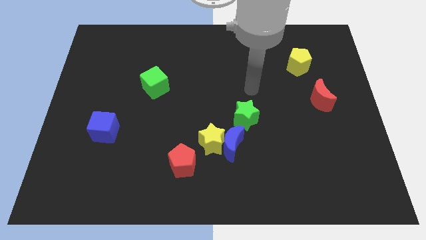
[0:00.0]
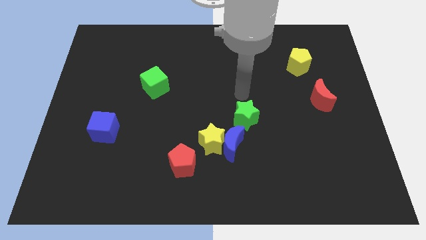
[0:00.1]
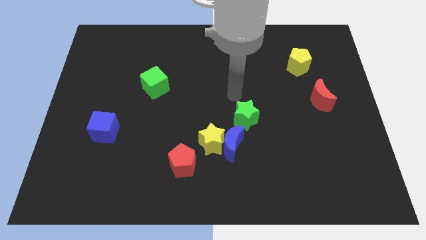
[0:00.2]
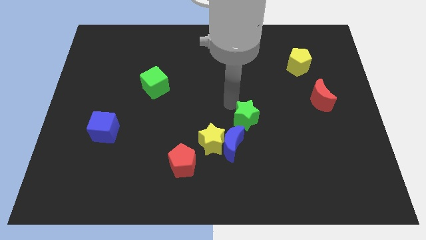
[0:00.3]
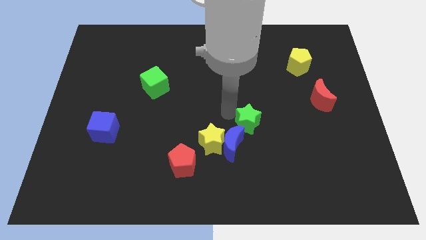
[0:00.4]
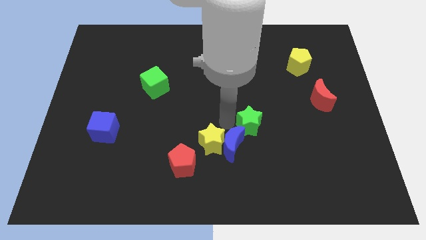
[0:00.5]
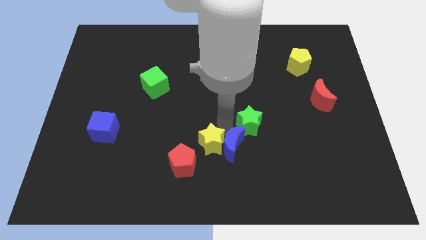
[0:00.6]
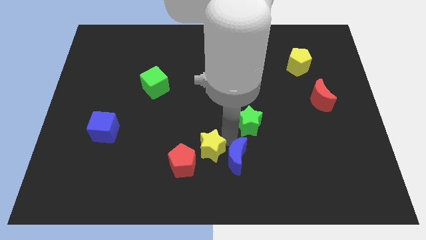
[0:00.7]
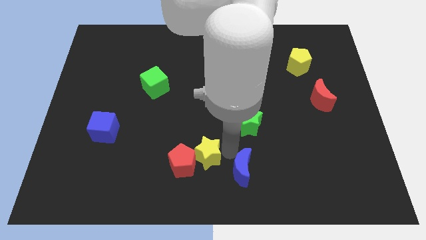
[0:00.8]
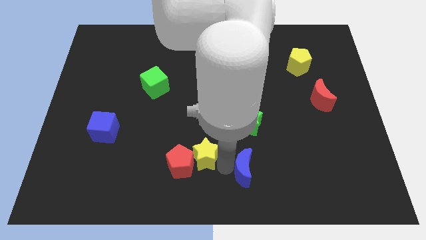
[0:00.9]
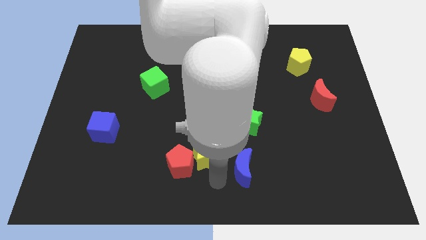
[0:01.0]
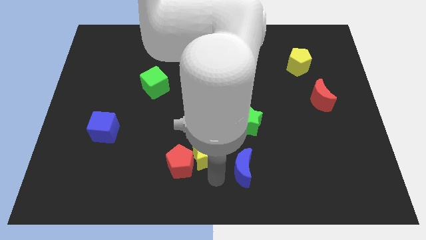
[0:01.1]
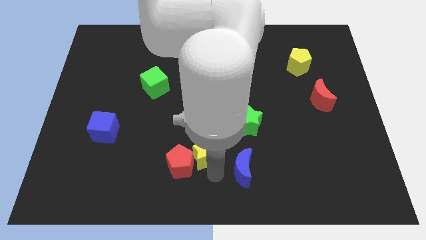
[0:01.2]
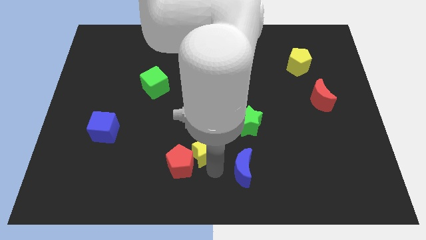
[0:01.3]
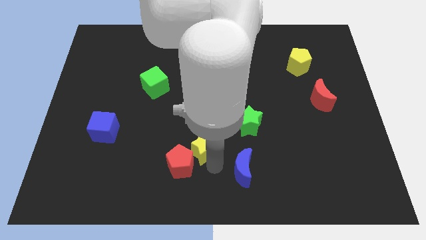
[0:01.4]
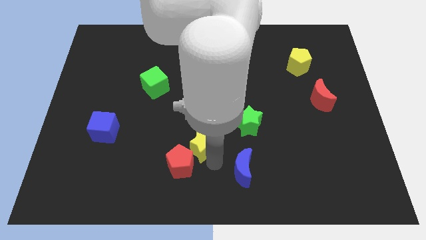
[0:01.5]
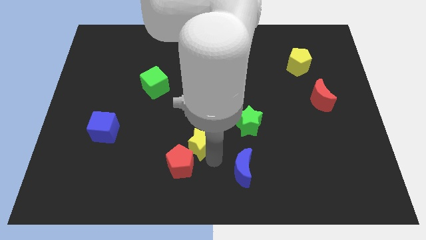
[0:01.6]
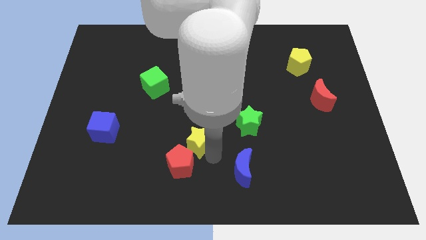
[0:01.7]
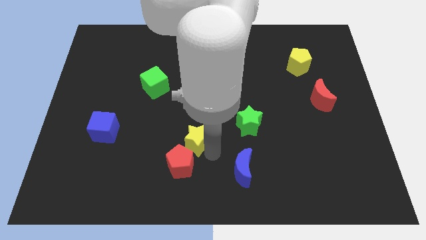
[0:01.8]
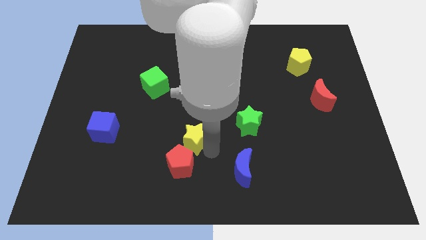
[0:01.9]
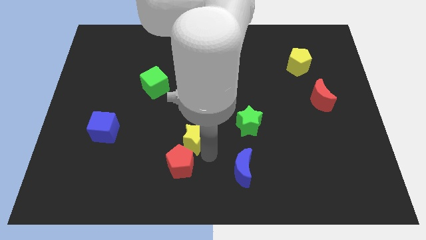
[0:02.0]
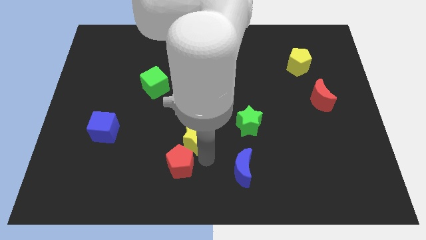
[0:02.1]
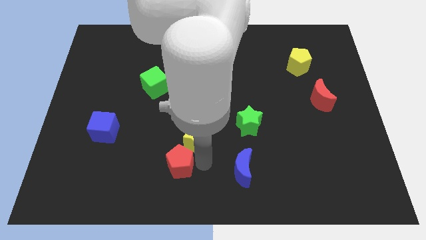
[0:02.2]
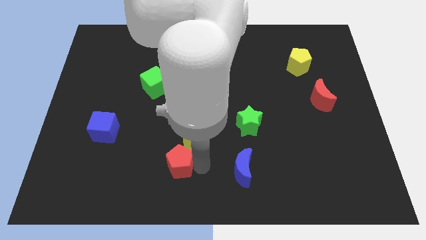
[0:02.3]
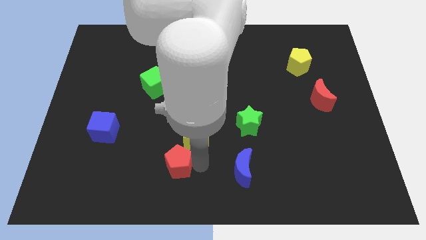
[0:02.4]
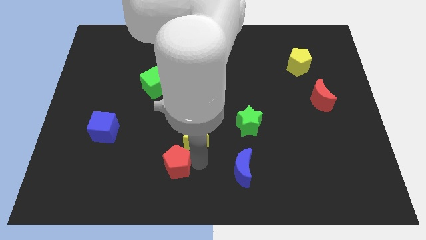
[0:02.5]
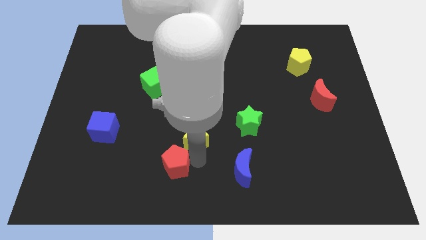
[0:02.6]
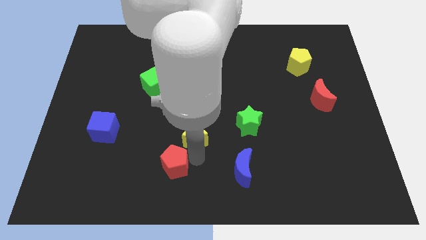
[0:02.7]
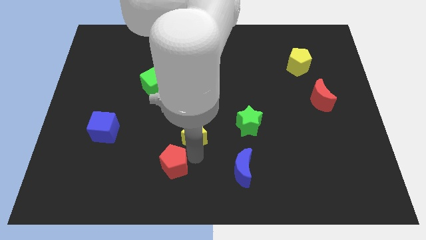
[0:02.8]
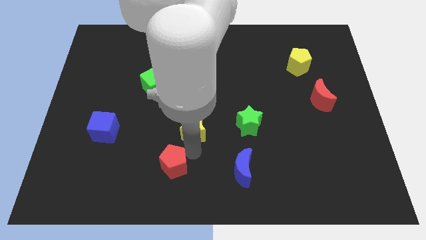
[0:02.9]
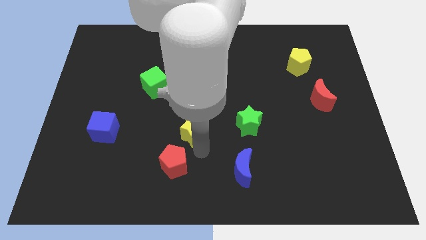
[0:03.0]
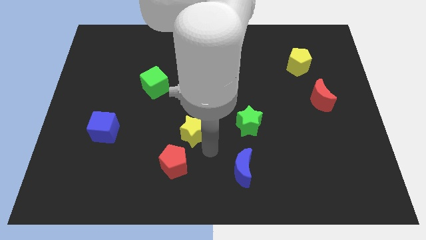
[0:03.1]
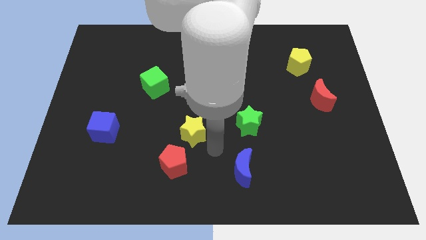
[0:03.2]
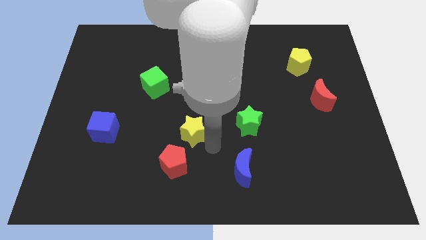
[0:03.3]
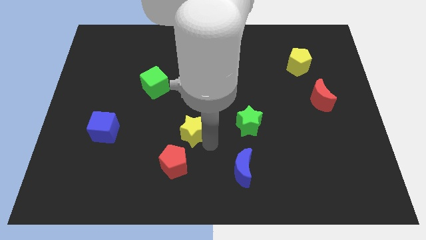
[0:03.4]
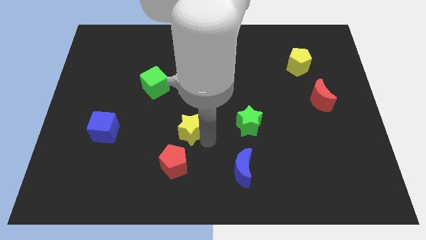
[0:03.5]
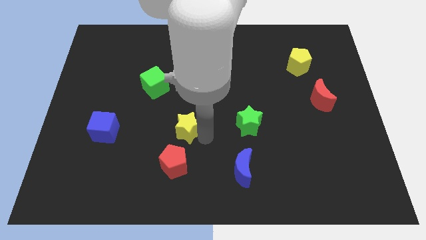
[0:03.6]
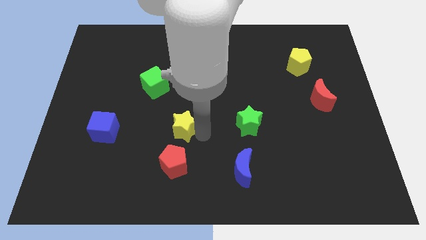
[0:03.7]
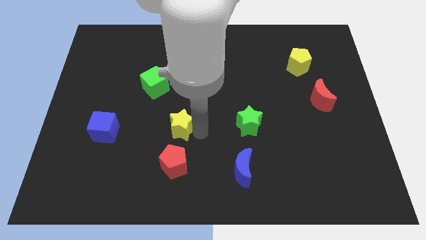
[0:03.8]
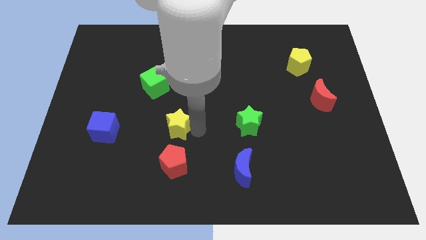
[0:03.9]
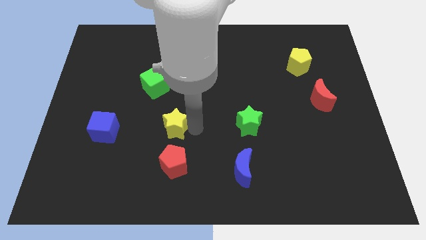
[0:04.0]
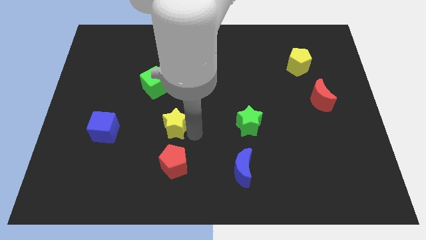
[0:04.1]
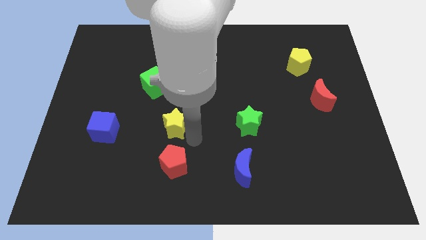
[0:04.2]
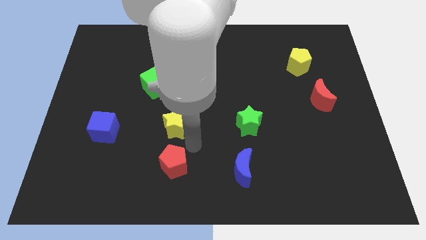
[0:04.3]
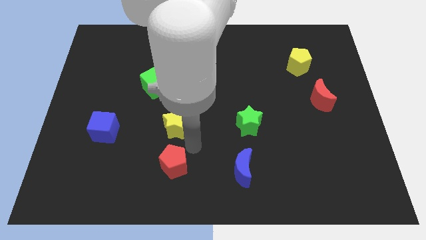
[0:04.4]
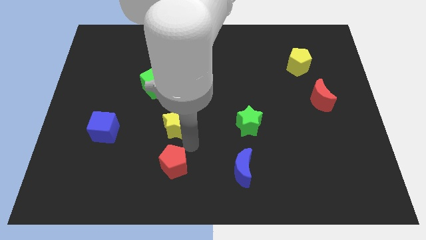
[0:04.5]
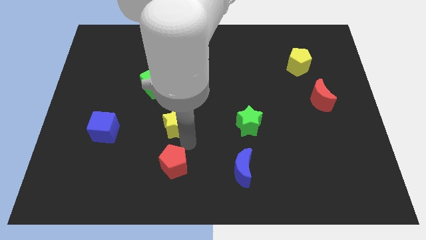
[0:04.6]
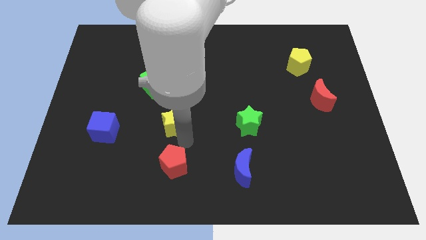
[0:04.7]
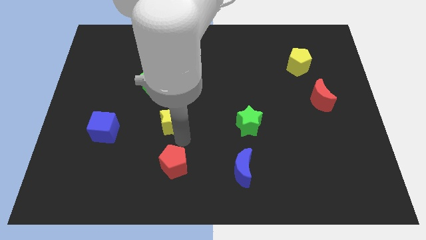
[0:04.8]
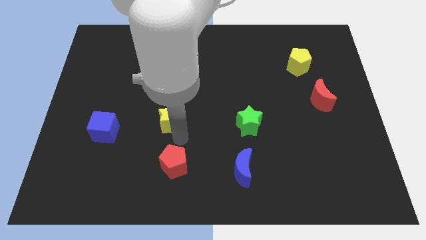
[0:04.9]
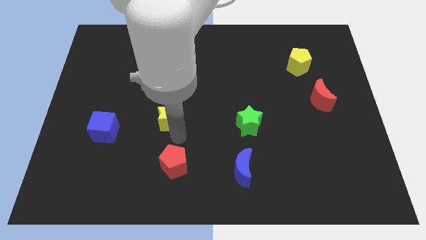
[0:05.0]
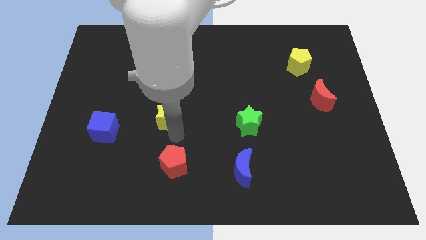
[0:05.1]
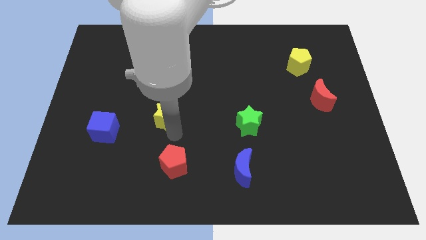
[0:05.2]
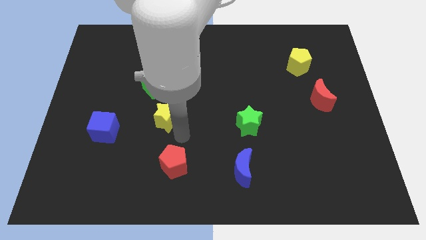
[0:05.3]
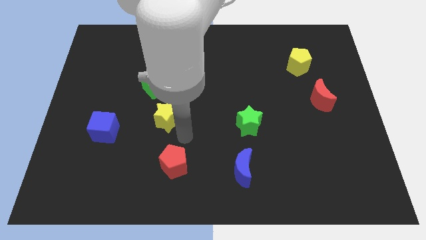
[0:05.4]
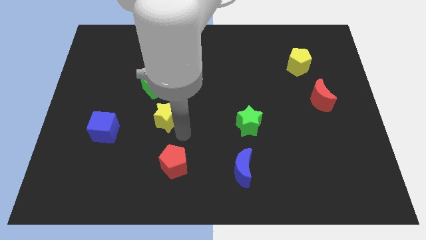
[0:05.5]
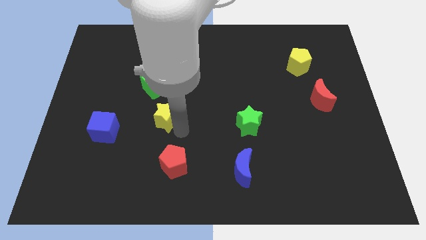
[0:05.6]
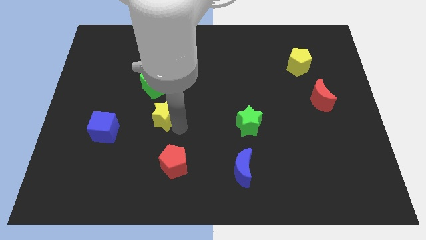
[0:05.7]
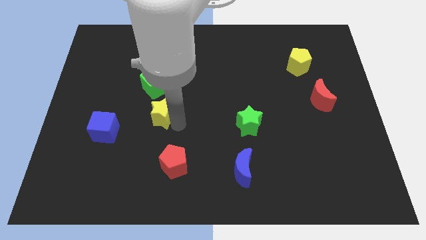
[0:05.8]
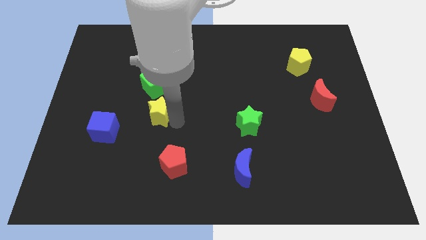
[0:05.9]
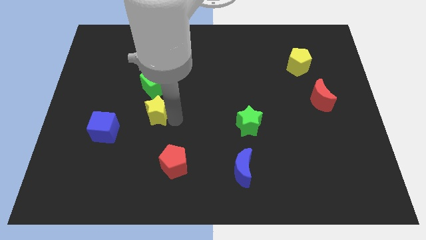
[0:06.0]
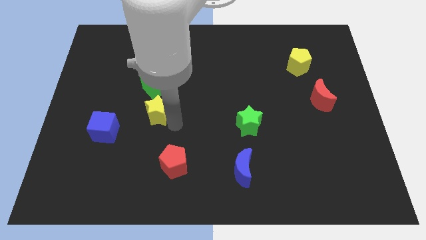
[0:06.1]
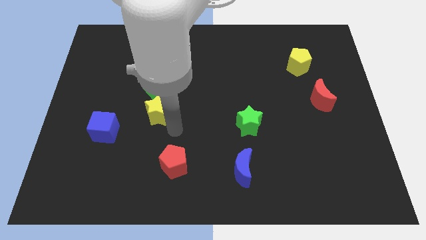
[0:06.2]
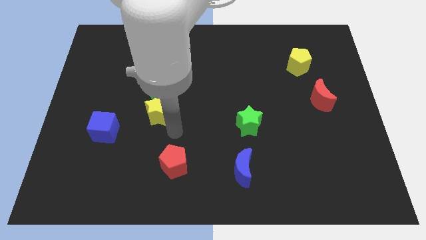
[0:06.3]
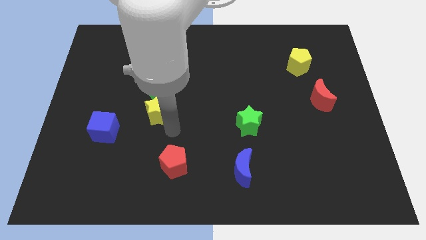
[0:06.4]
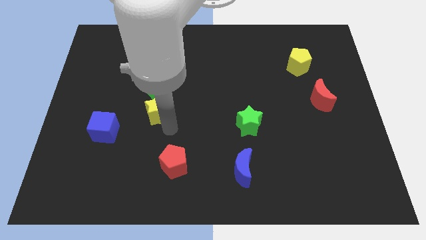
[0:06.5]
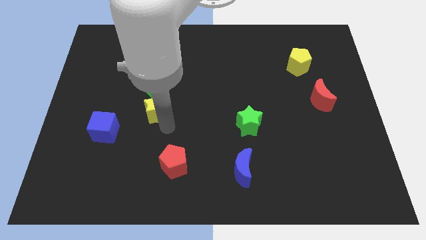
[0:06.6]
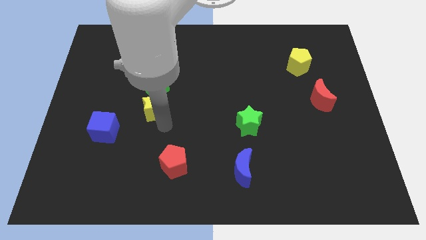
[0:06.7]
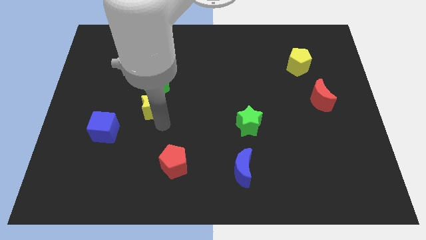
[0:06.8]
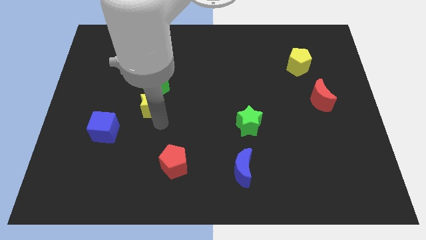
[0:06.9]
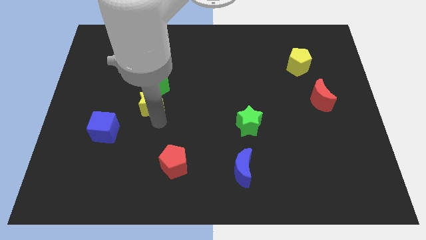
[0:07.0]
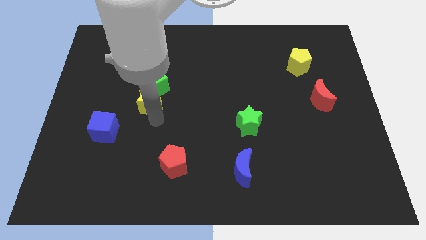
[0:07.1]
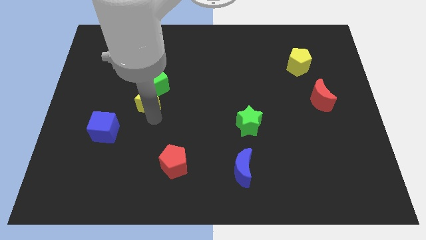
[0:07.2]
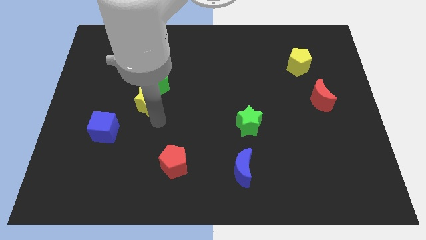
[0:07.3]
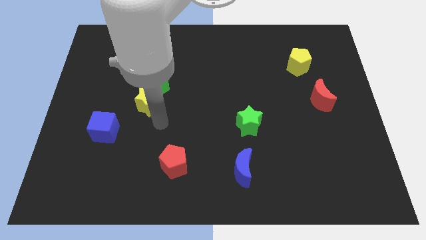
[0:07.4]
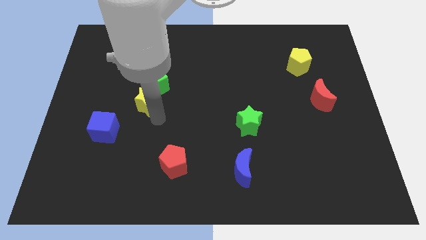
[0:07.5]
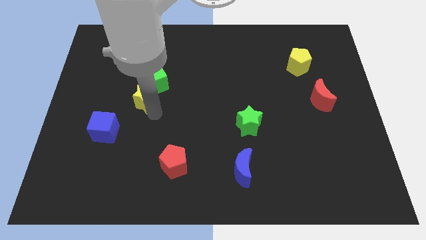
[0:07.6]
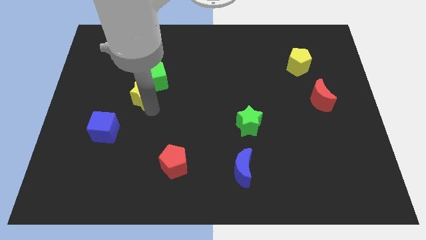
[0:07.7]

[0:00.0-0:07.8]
push the yellow star up and left
